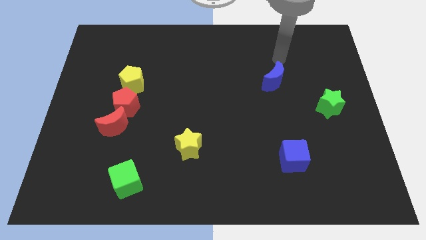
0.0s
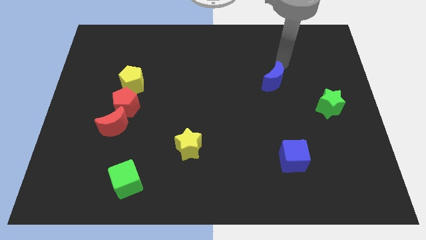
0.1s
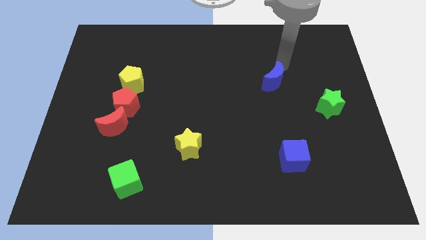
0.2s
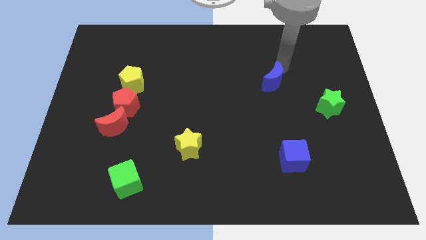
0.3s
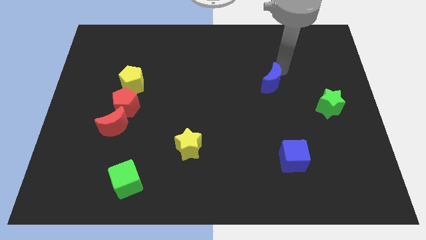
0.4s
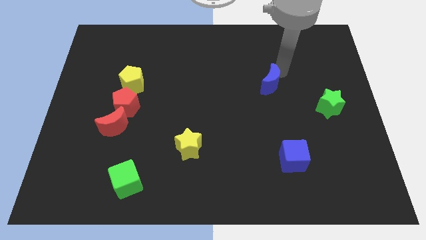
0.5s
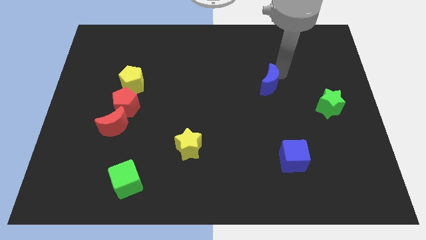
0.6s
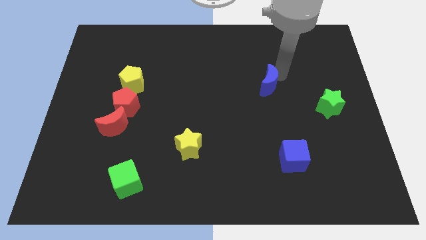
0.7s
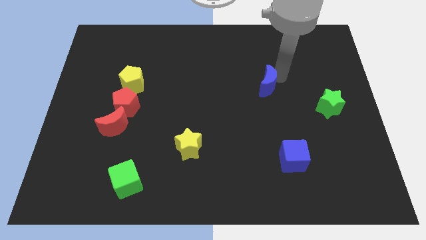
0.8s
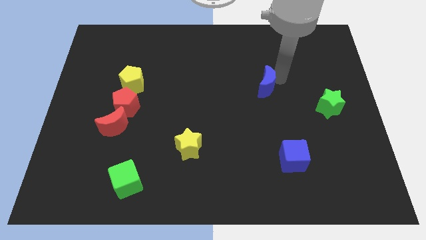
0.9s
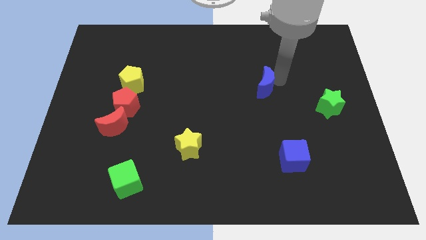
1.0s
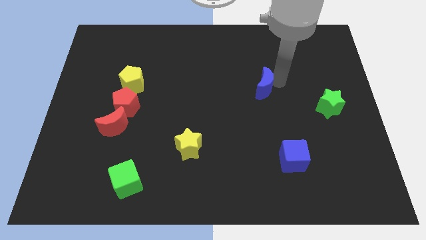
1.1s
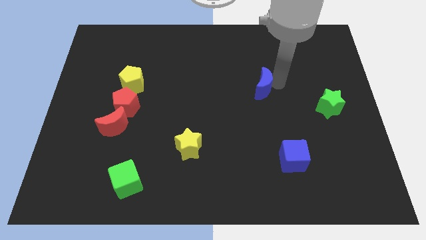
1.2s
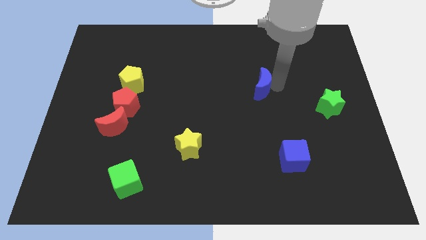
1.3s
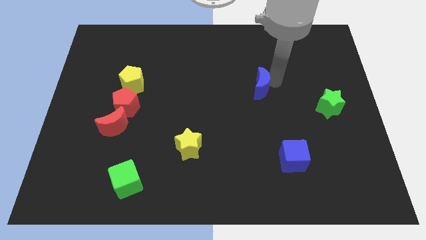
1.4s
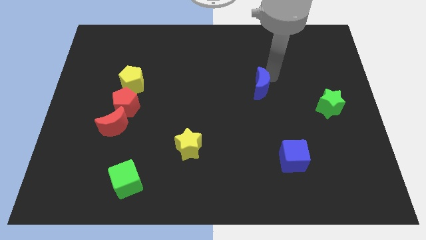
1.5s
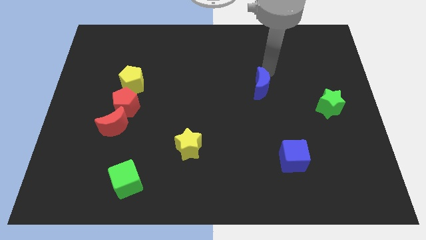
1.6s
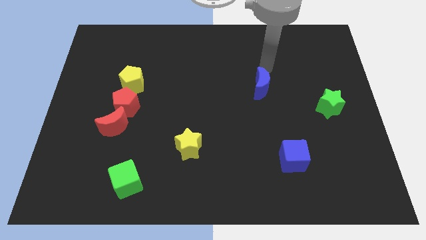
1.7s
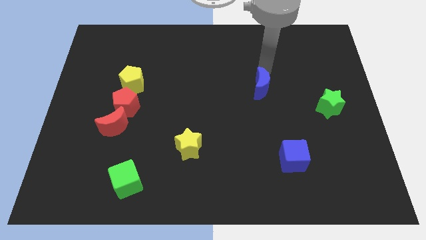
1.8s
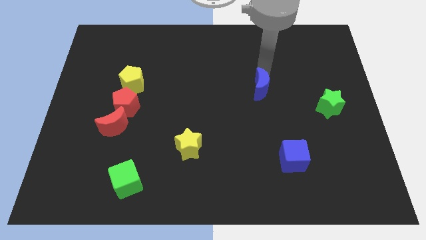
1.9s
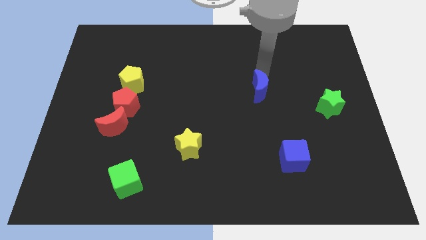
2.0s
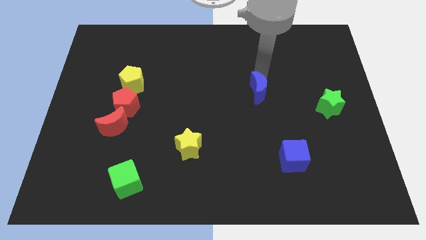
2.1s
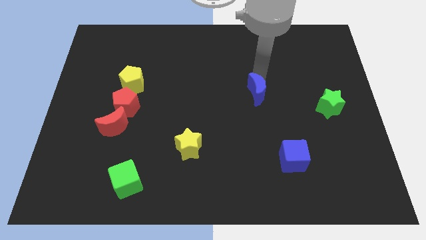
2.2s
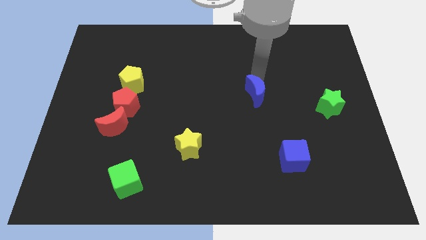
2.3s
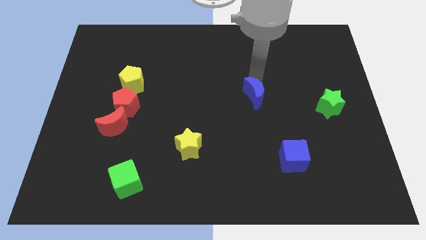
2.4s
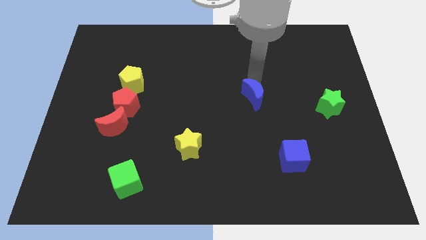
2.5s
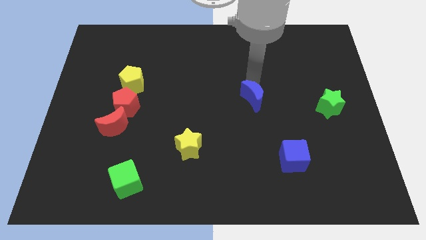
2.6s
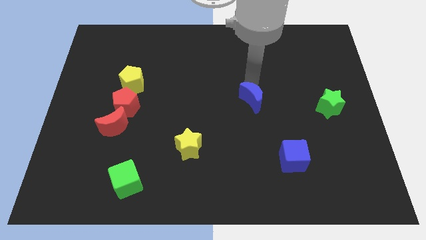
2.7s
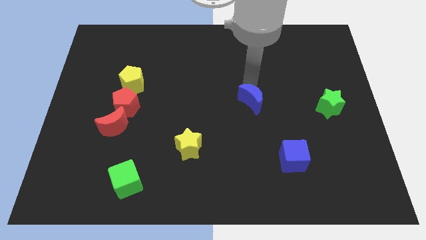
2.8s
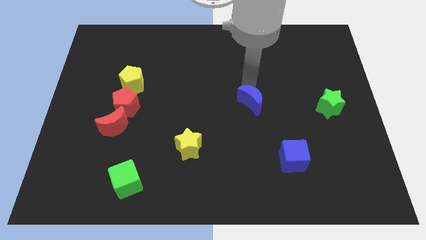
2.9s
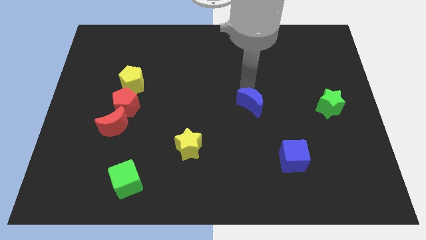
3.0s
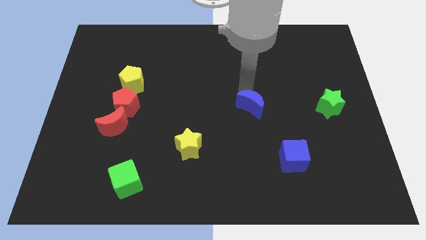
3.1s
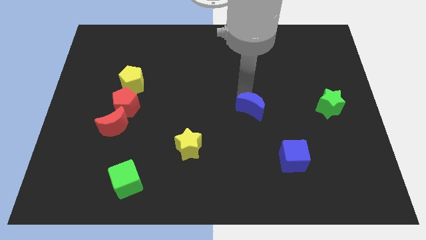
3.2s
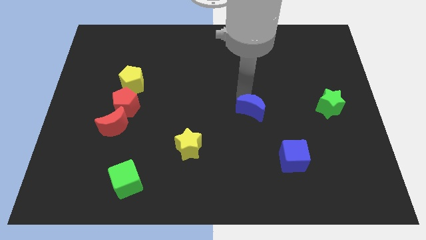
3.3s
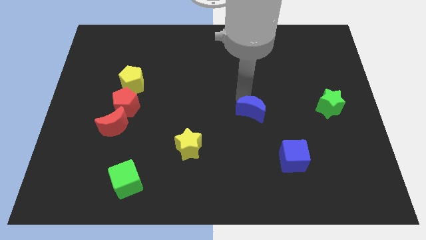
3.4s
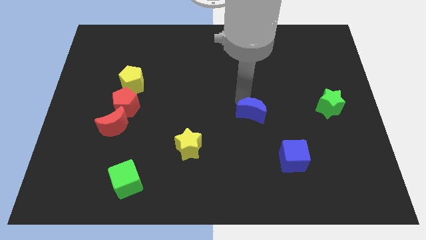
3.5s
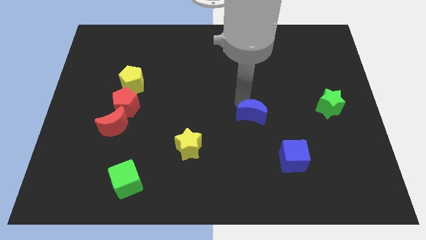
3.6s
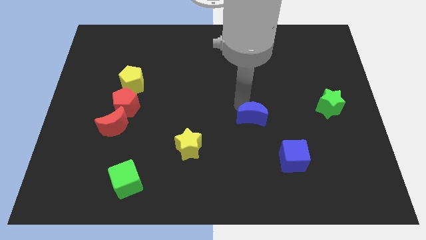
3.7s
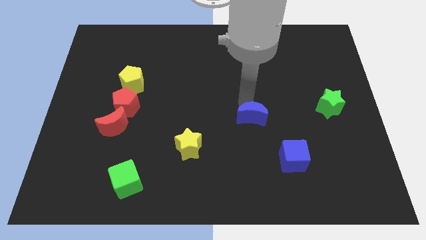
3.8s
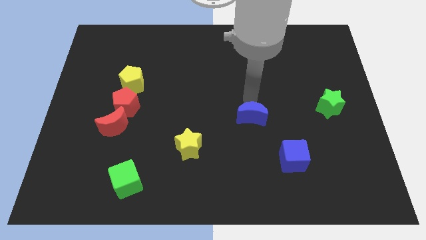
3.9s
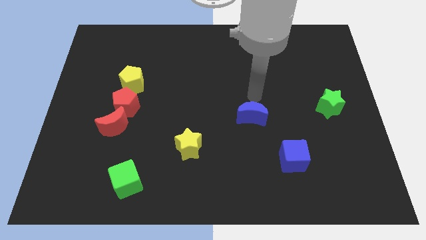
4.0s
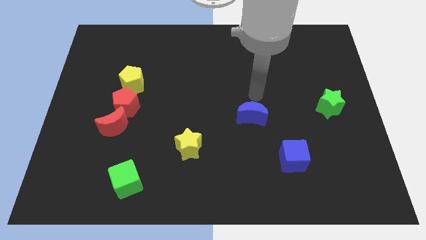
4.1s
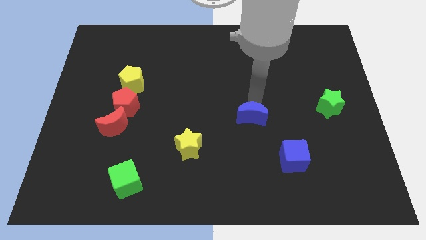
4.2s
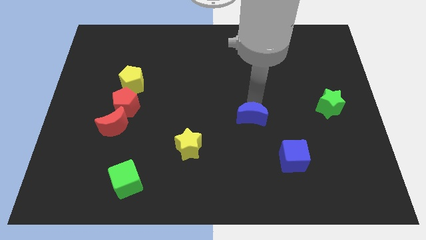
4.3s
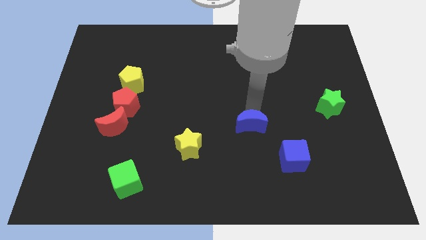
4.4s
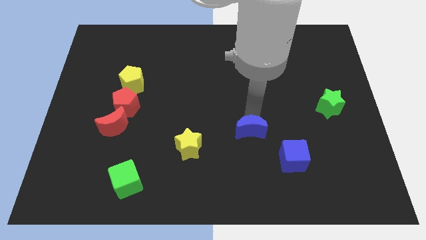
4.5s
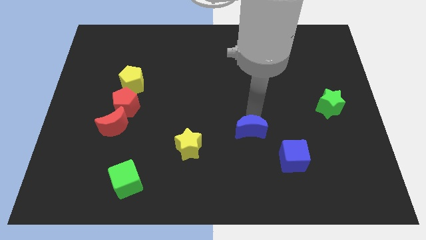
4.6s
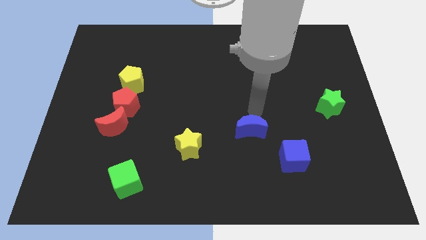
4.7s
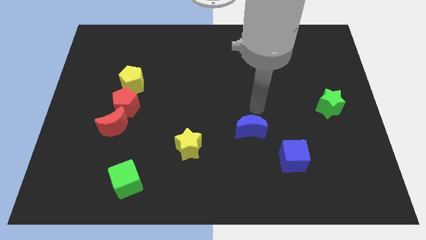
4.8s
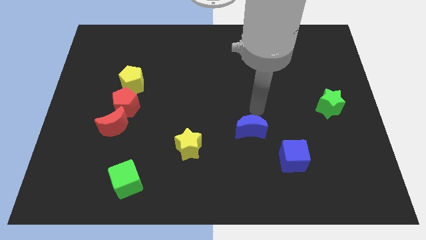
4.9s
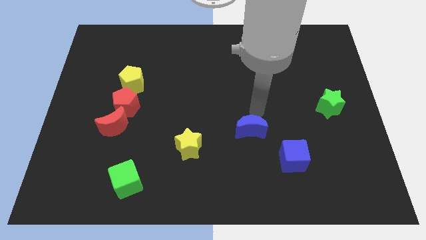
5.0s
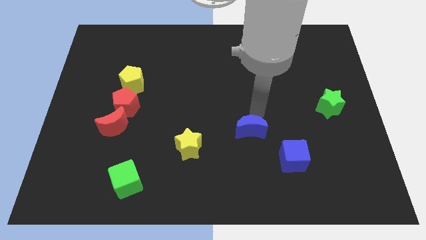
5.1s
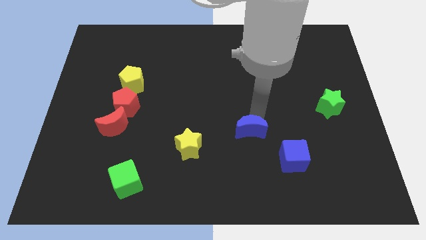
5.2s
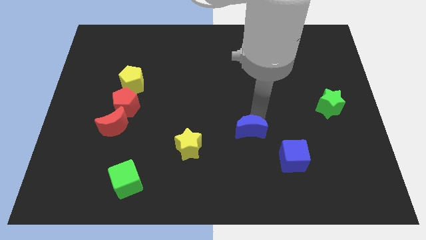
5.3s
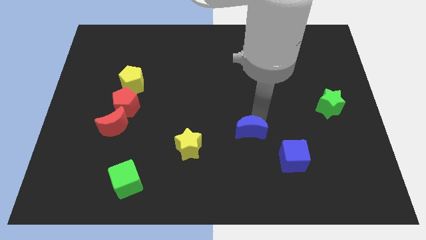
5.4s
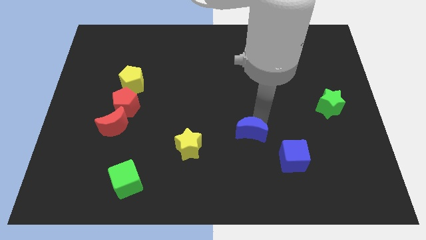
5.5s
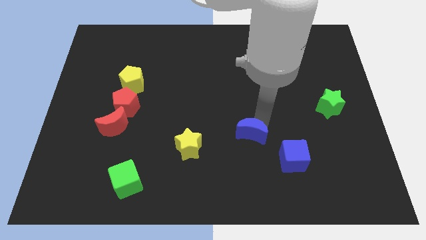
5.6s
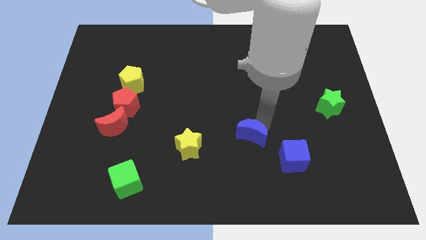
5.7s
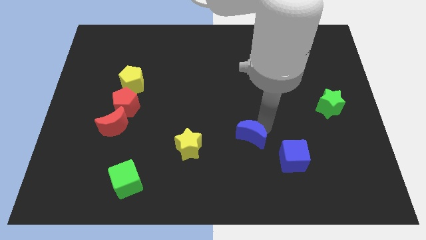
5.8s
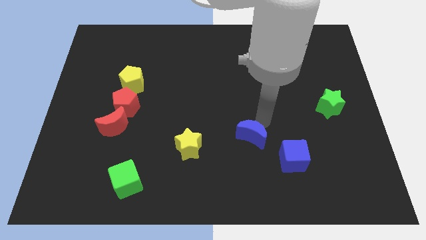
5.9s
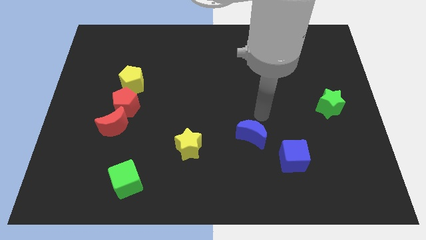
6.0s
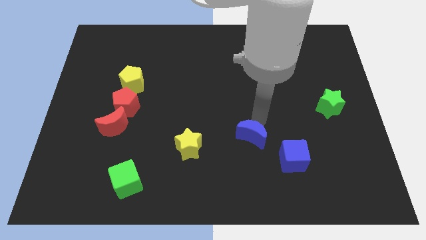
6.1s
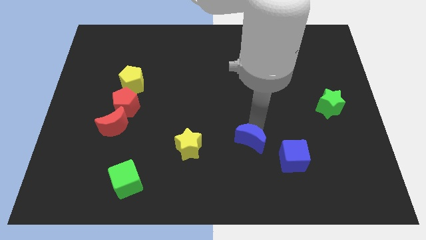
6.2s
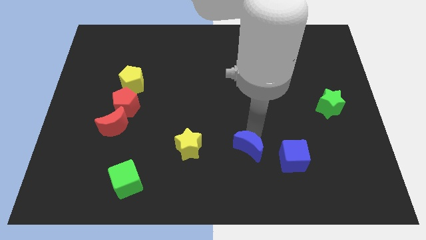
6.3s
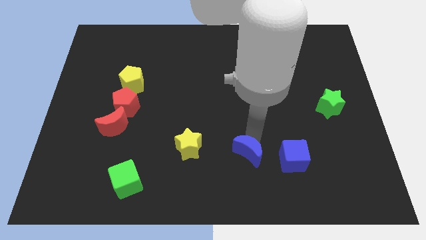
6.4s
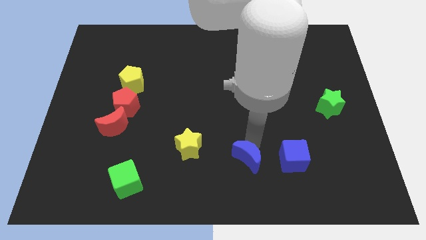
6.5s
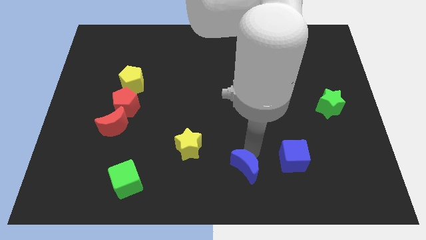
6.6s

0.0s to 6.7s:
put the blue moon to the bottom side
